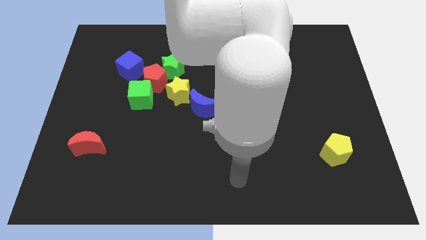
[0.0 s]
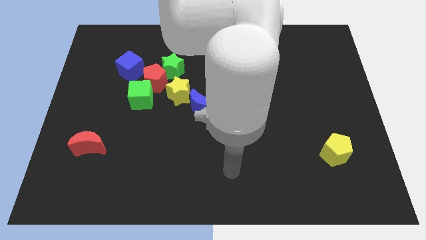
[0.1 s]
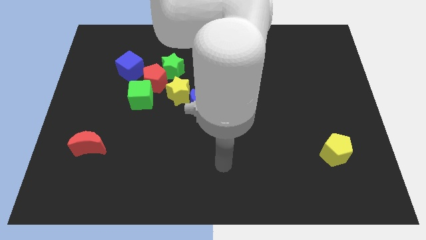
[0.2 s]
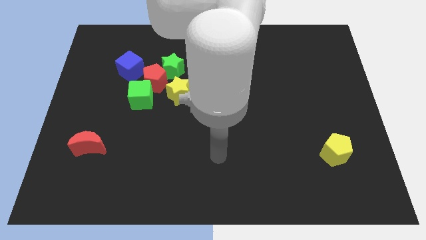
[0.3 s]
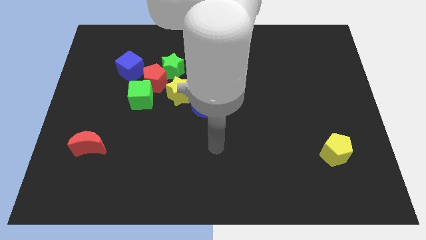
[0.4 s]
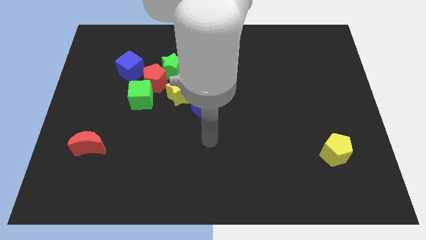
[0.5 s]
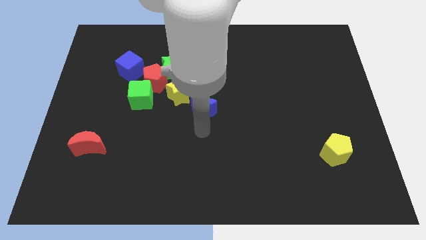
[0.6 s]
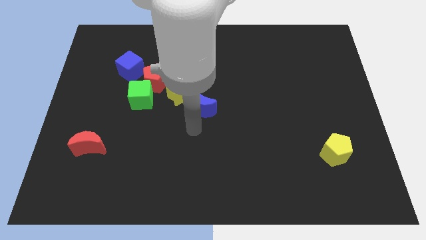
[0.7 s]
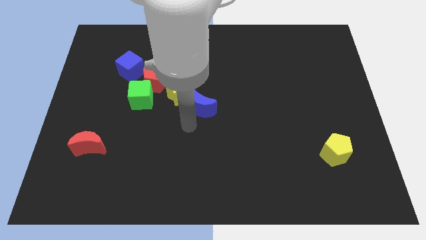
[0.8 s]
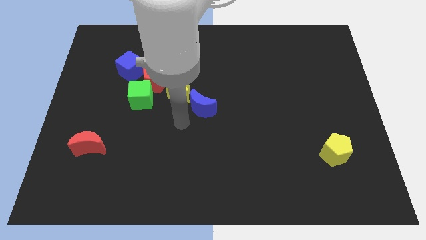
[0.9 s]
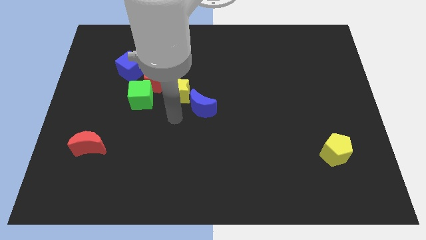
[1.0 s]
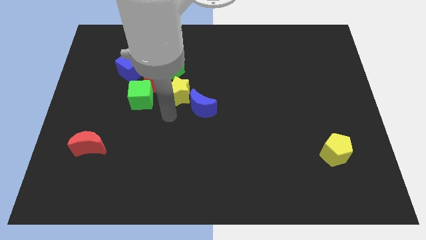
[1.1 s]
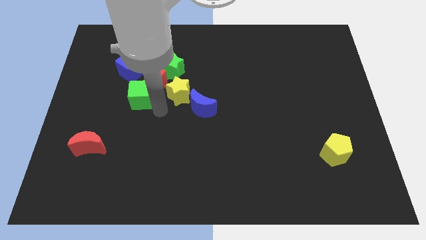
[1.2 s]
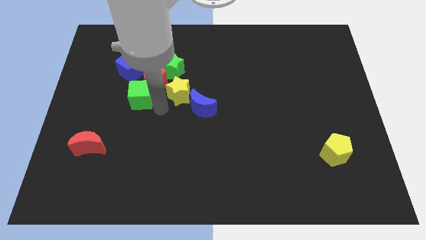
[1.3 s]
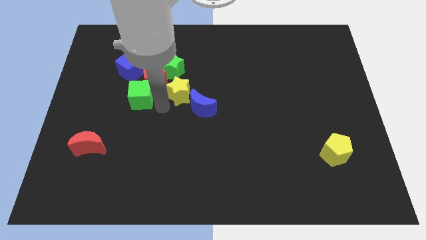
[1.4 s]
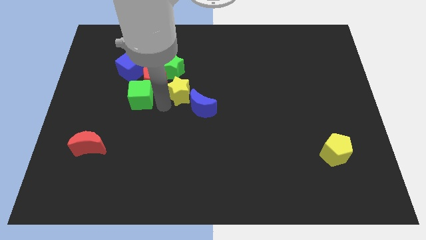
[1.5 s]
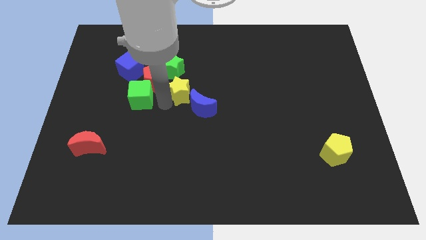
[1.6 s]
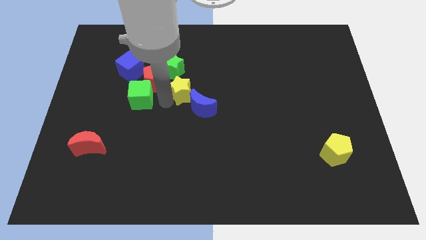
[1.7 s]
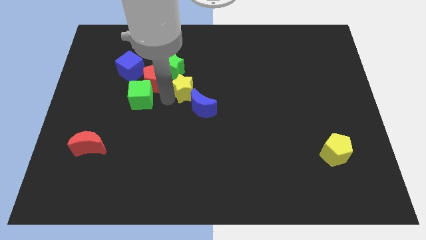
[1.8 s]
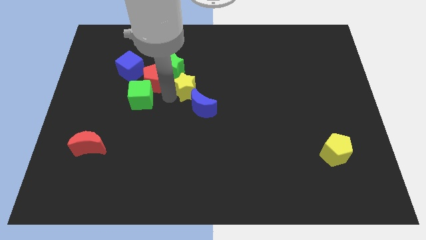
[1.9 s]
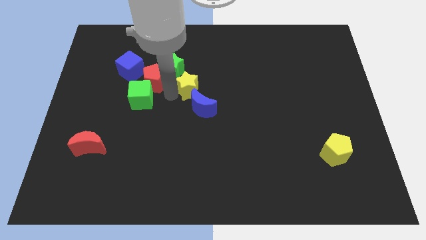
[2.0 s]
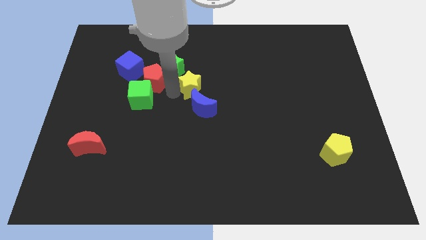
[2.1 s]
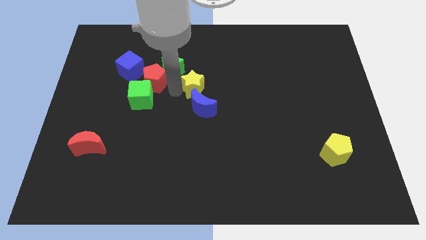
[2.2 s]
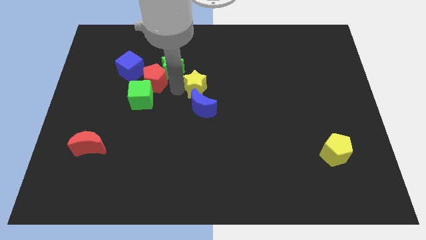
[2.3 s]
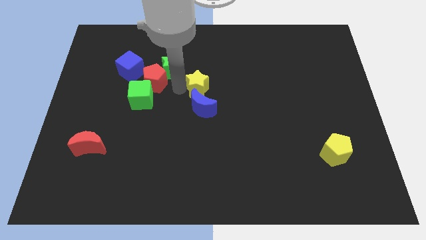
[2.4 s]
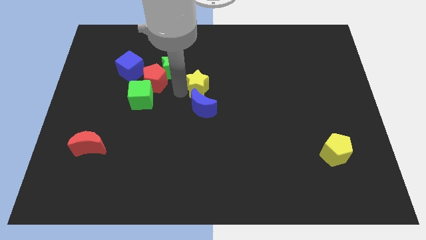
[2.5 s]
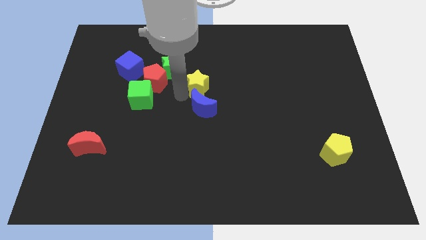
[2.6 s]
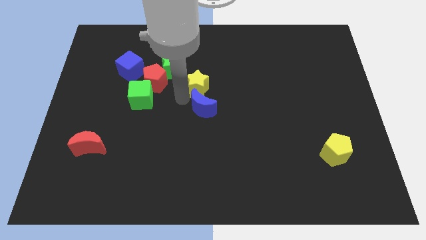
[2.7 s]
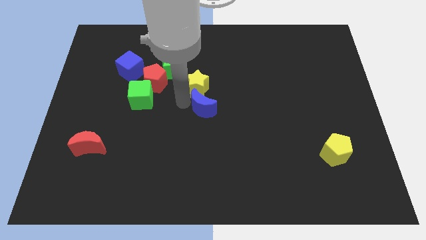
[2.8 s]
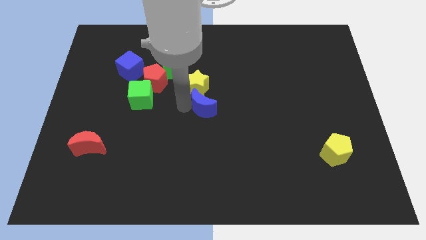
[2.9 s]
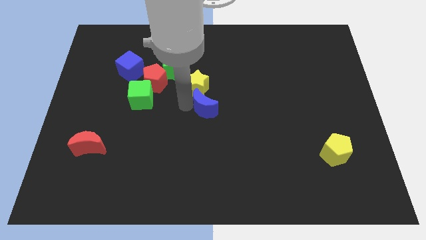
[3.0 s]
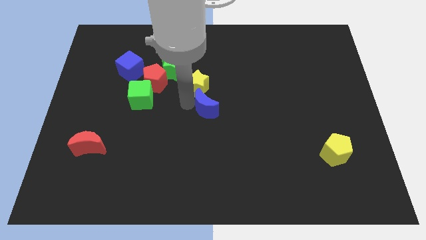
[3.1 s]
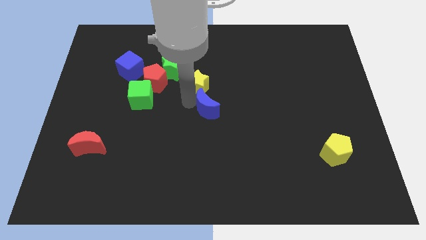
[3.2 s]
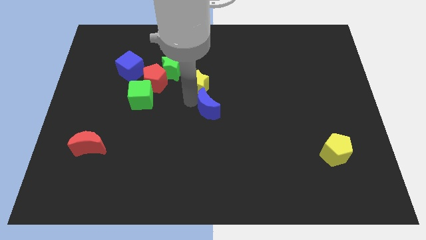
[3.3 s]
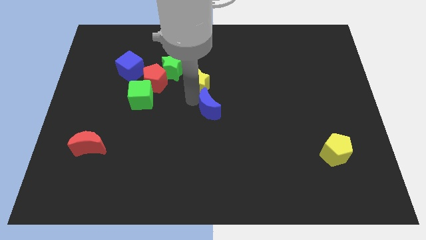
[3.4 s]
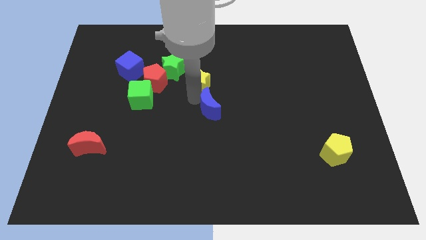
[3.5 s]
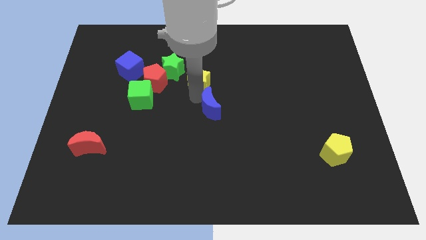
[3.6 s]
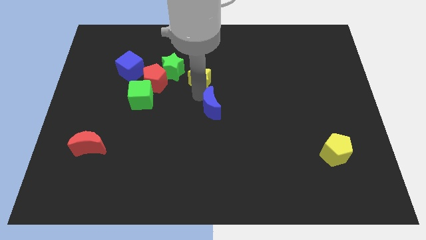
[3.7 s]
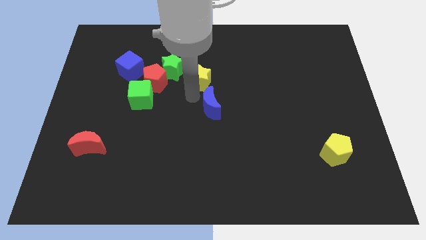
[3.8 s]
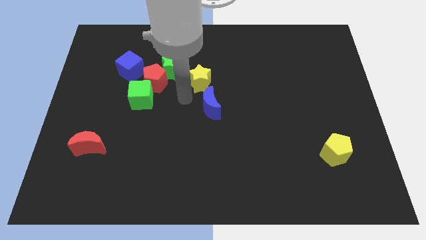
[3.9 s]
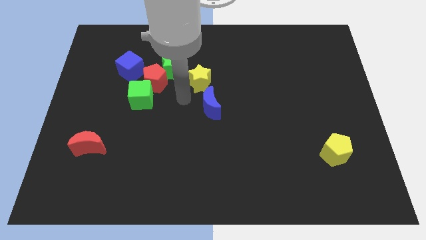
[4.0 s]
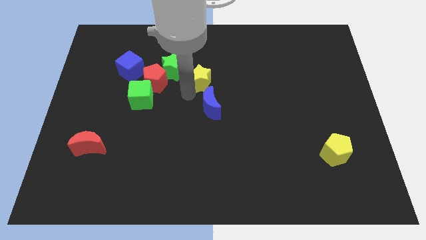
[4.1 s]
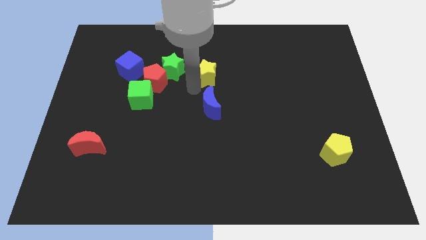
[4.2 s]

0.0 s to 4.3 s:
push the yellow star upwards and right diagonally somewhat

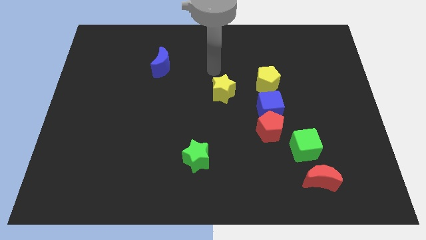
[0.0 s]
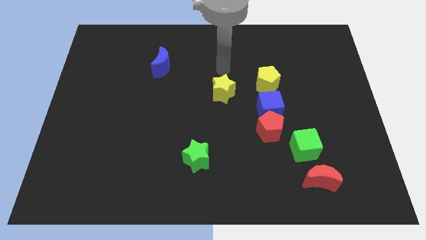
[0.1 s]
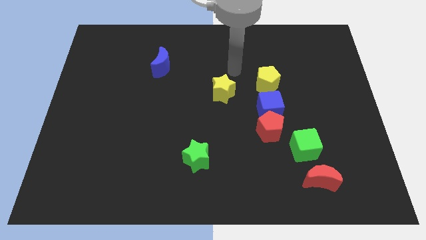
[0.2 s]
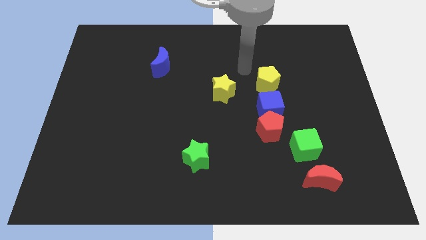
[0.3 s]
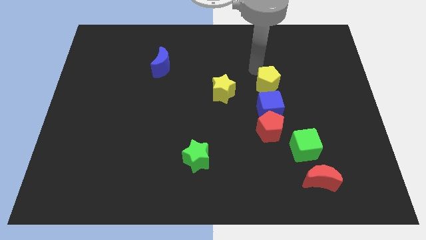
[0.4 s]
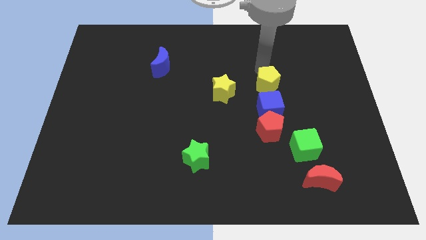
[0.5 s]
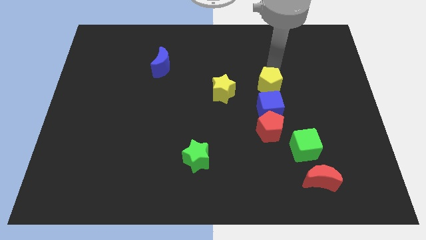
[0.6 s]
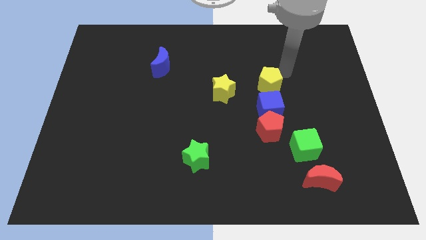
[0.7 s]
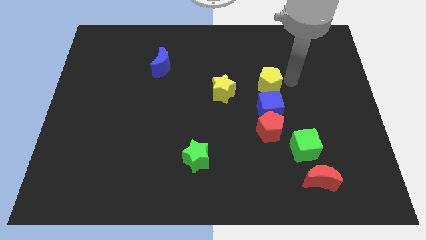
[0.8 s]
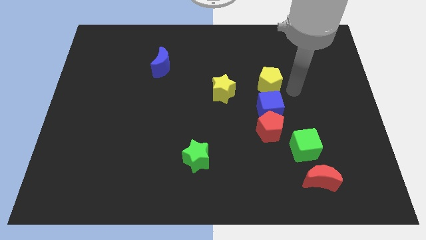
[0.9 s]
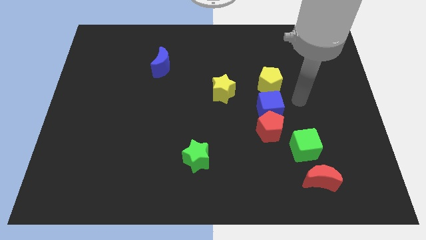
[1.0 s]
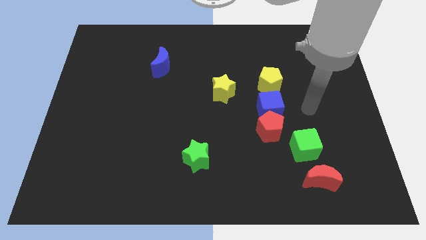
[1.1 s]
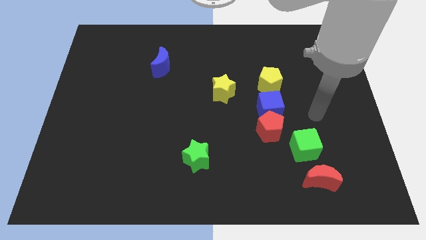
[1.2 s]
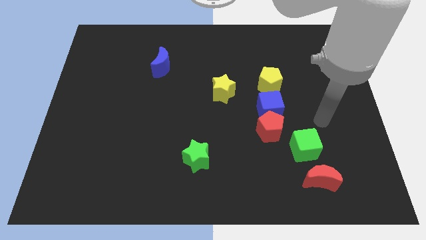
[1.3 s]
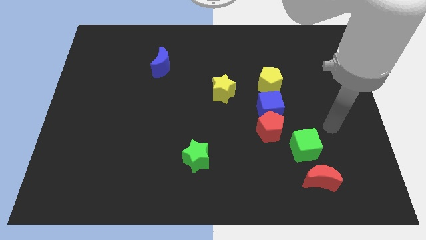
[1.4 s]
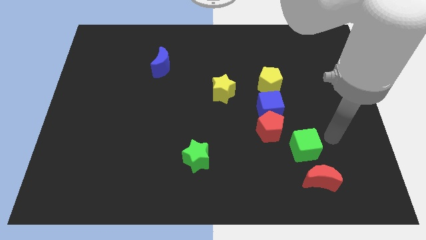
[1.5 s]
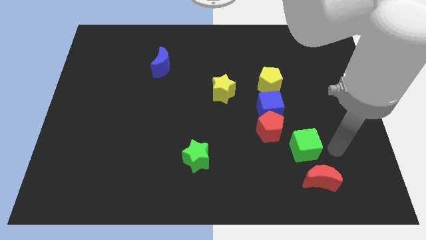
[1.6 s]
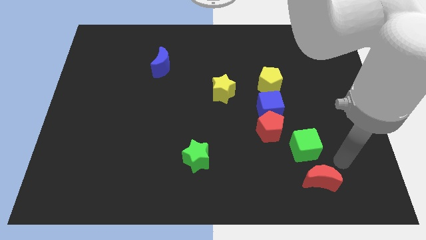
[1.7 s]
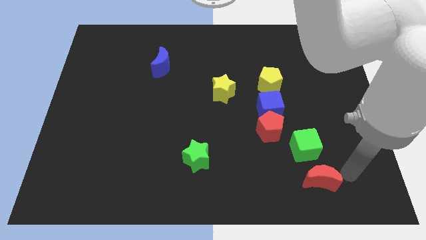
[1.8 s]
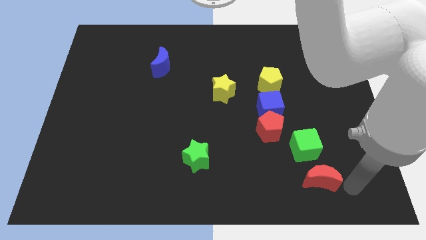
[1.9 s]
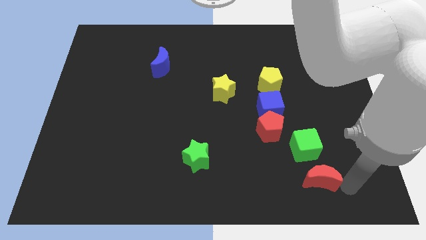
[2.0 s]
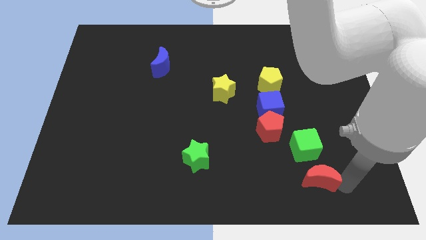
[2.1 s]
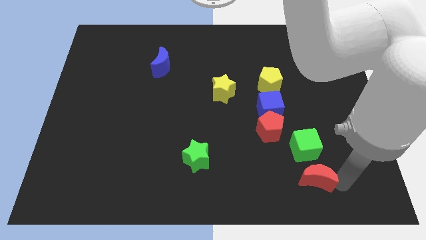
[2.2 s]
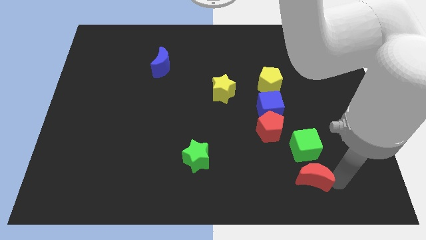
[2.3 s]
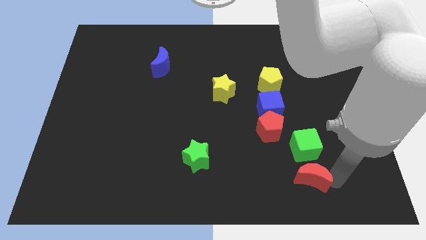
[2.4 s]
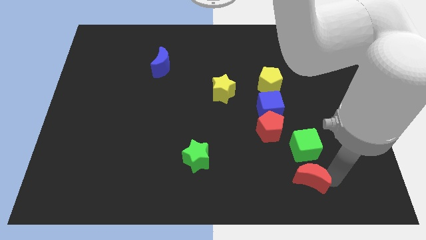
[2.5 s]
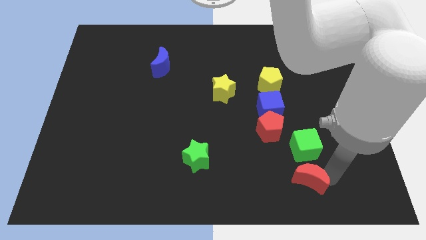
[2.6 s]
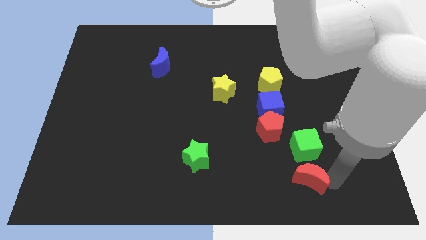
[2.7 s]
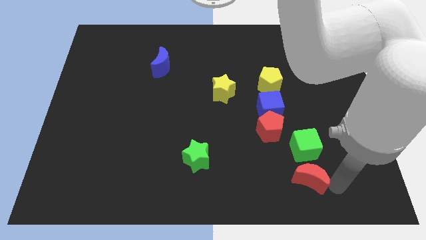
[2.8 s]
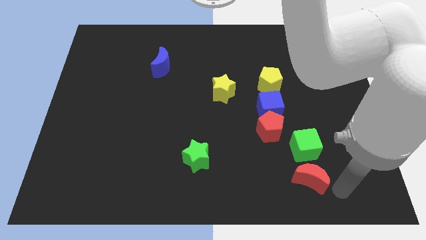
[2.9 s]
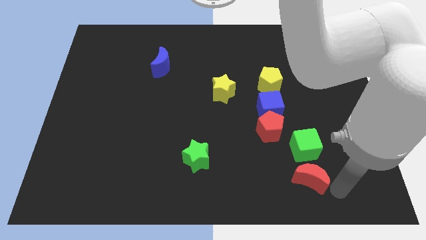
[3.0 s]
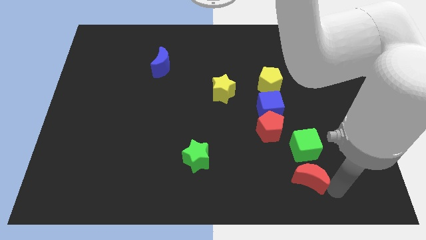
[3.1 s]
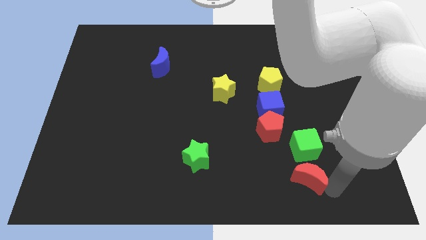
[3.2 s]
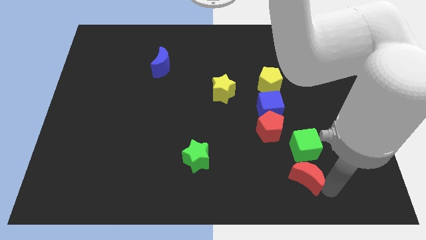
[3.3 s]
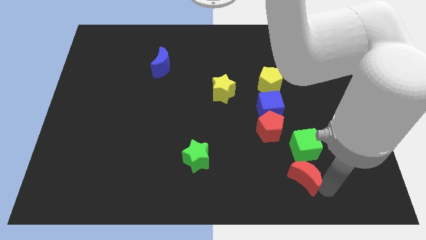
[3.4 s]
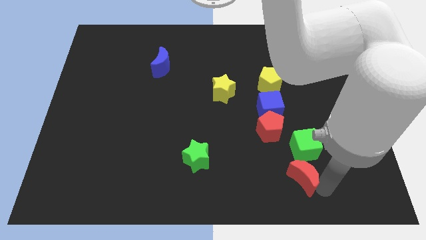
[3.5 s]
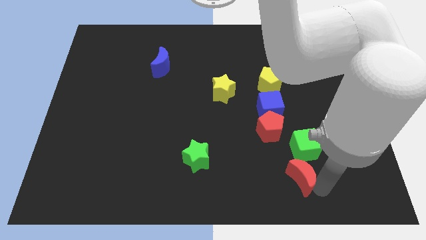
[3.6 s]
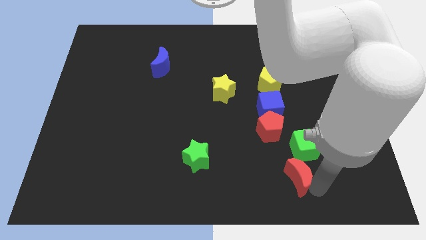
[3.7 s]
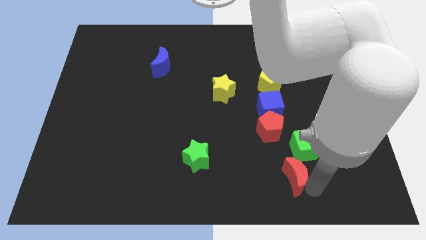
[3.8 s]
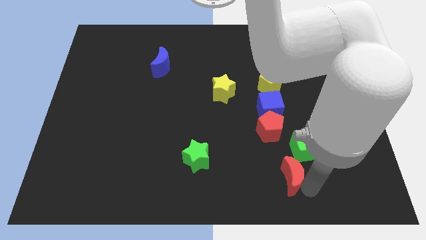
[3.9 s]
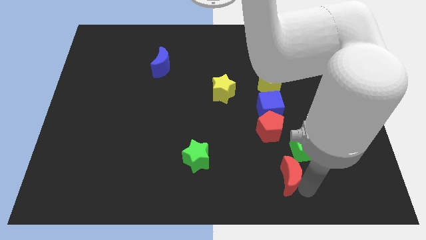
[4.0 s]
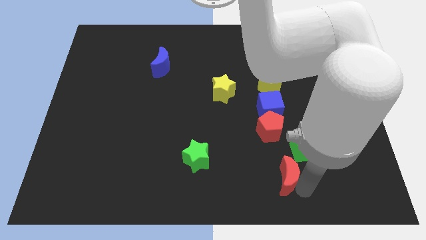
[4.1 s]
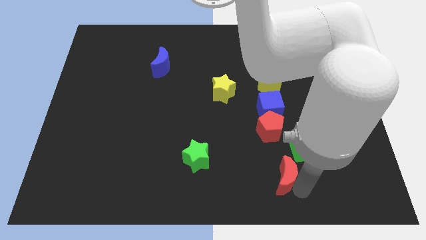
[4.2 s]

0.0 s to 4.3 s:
slightly move the red moon left
